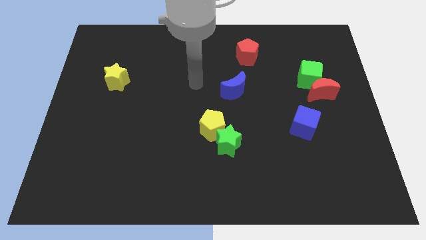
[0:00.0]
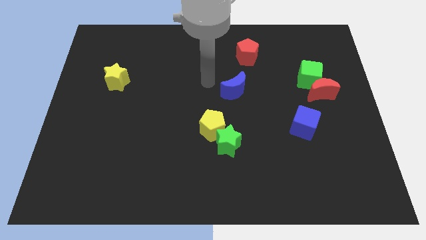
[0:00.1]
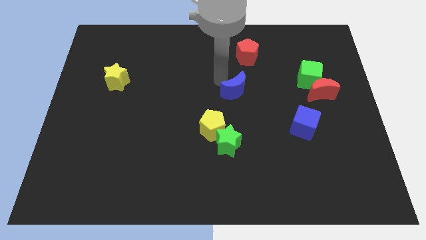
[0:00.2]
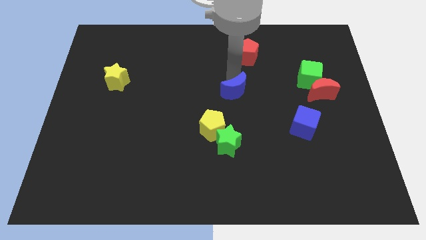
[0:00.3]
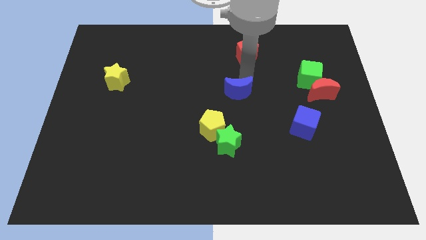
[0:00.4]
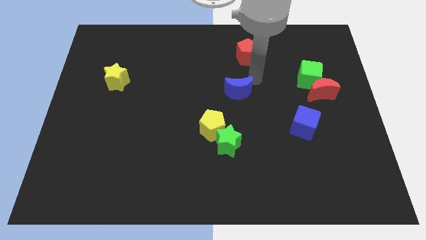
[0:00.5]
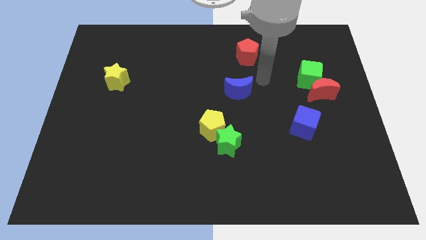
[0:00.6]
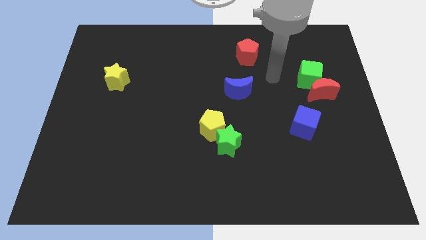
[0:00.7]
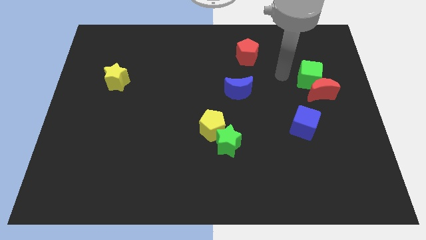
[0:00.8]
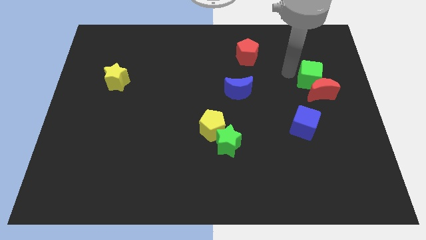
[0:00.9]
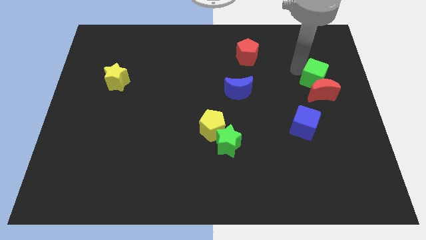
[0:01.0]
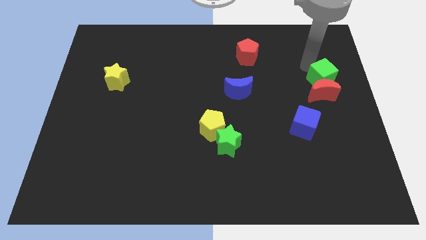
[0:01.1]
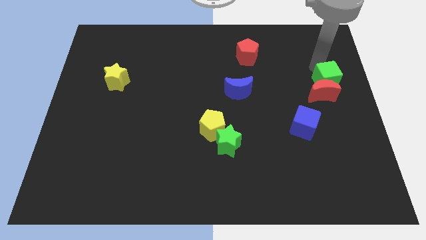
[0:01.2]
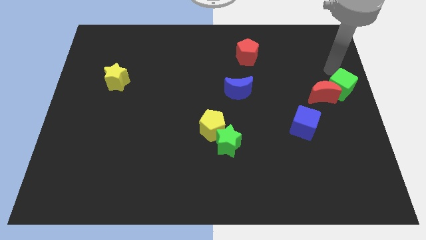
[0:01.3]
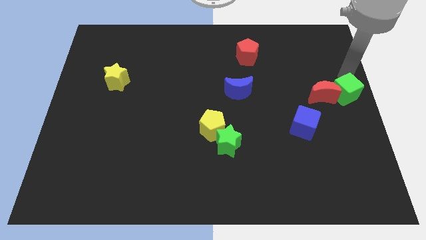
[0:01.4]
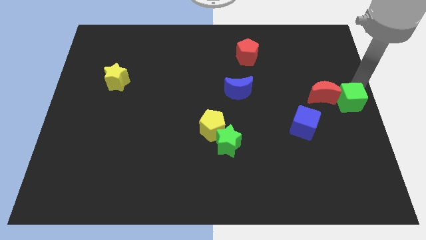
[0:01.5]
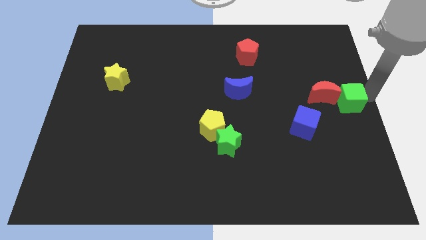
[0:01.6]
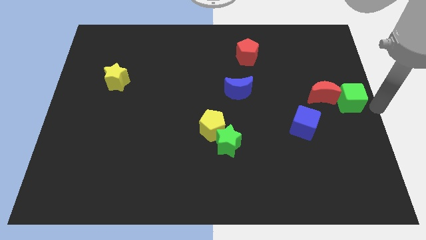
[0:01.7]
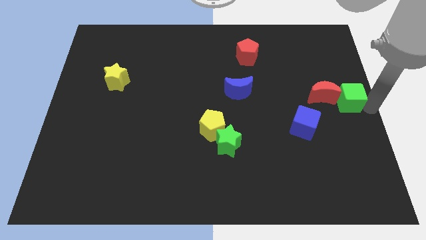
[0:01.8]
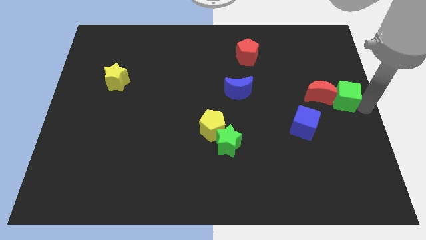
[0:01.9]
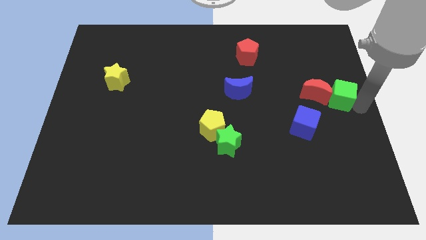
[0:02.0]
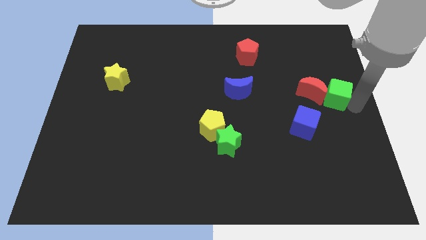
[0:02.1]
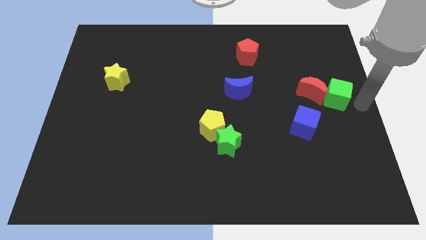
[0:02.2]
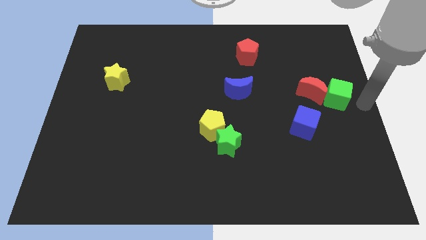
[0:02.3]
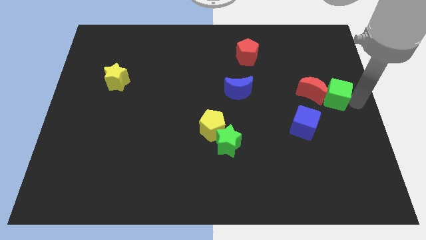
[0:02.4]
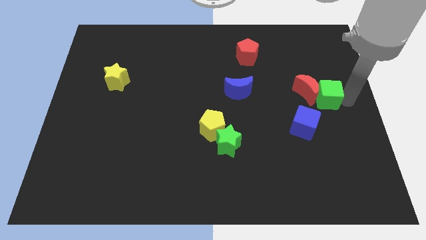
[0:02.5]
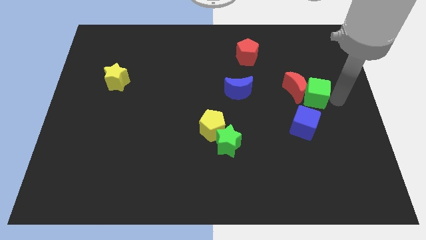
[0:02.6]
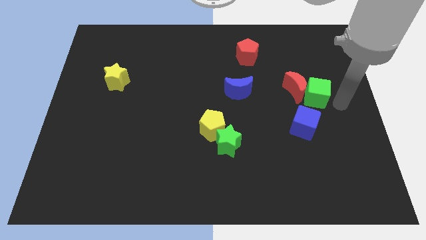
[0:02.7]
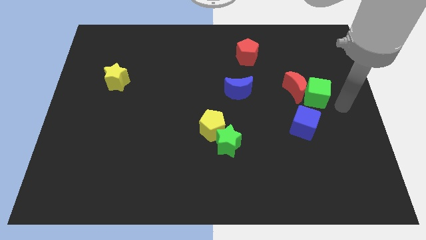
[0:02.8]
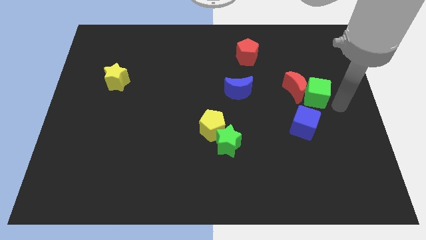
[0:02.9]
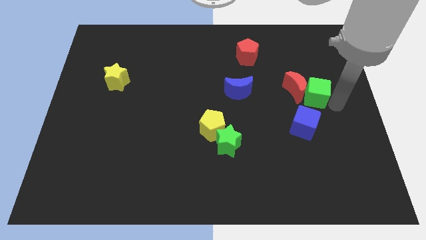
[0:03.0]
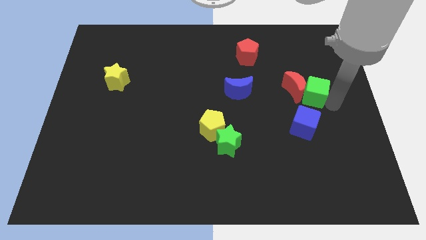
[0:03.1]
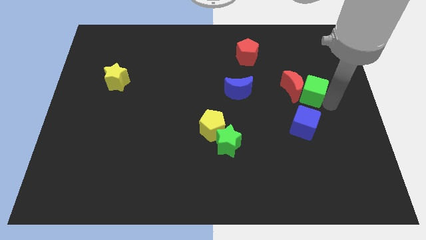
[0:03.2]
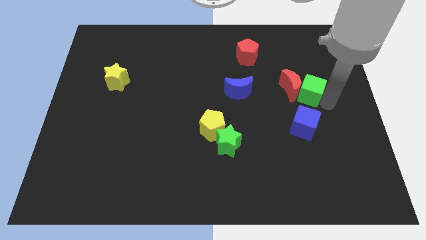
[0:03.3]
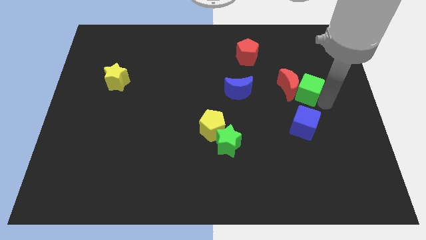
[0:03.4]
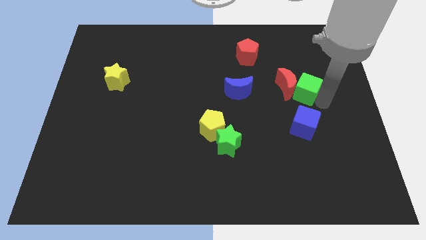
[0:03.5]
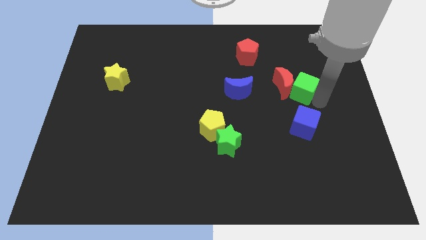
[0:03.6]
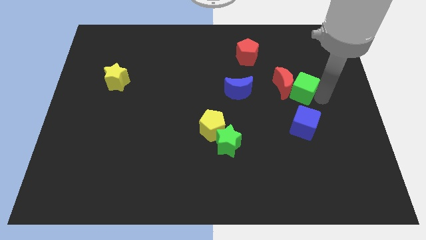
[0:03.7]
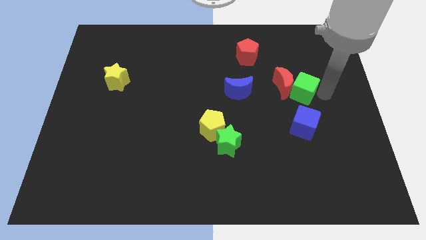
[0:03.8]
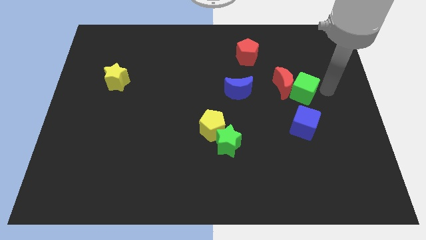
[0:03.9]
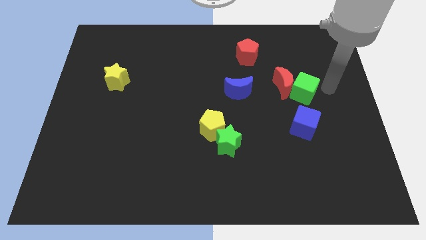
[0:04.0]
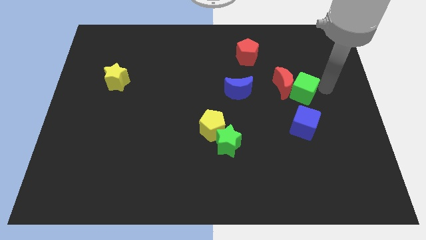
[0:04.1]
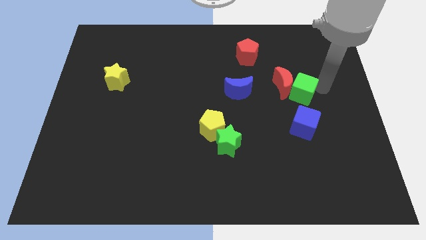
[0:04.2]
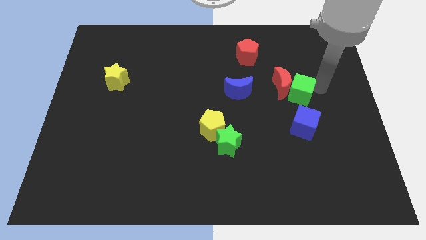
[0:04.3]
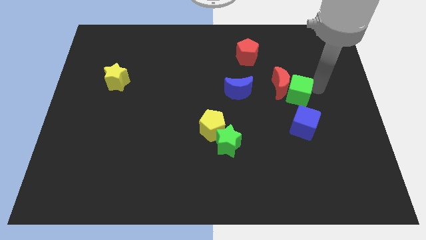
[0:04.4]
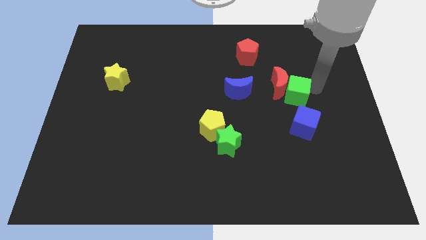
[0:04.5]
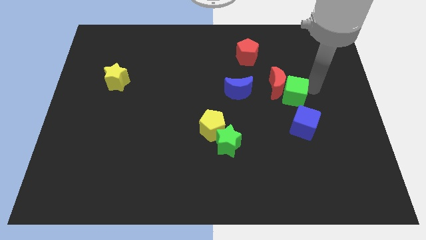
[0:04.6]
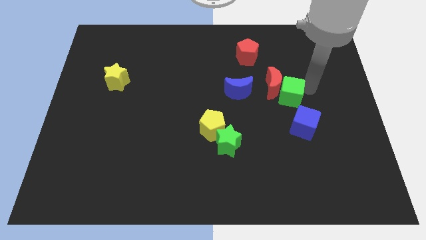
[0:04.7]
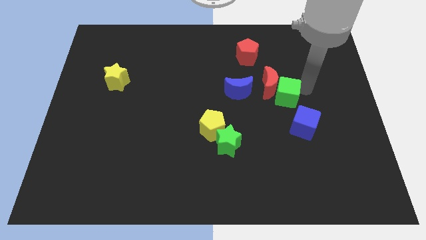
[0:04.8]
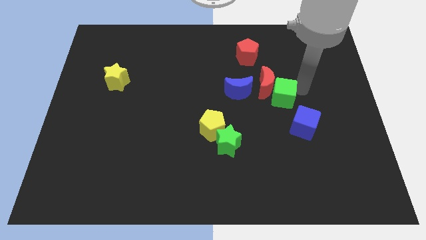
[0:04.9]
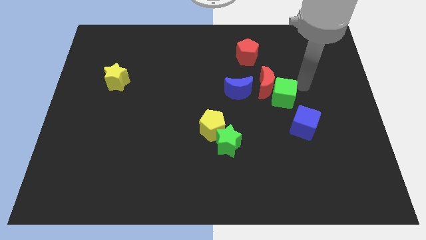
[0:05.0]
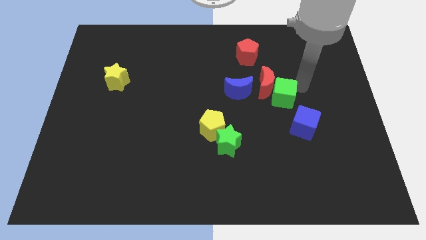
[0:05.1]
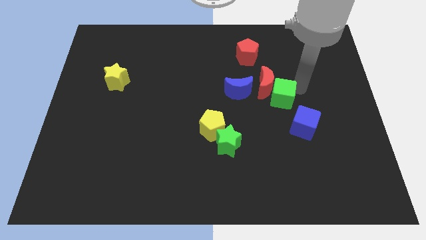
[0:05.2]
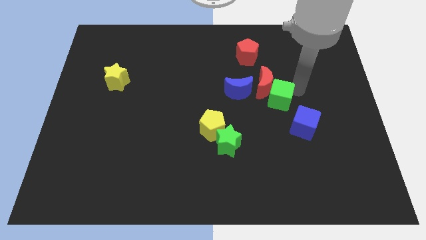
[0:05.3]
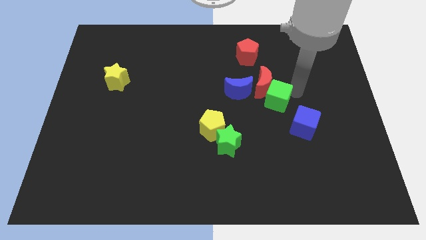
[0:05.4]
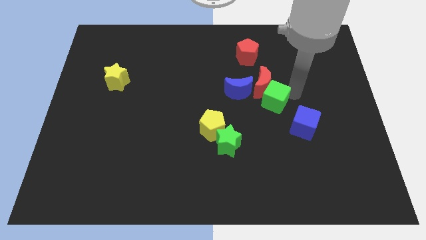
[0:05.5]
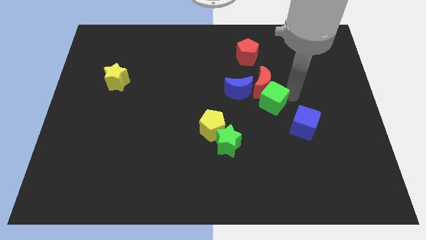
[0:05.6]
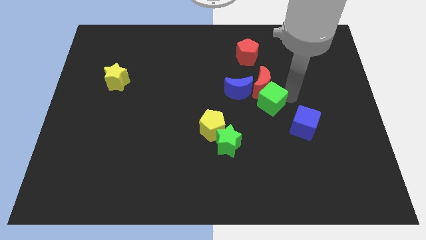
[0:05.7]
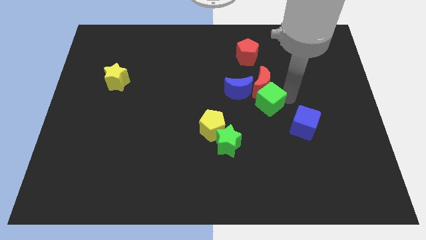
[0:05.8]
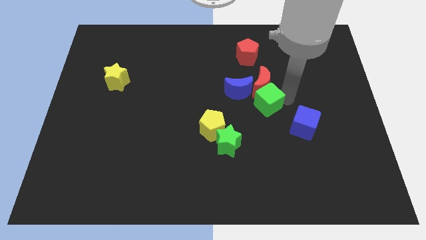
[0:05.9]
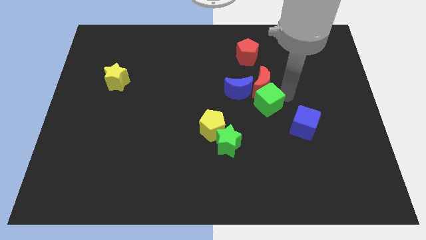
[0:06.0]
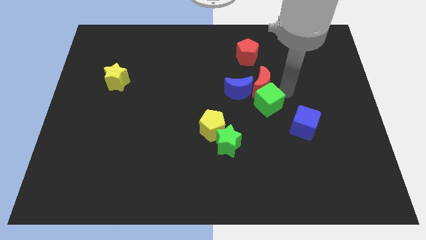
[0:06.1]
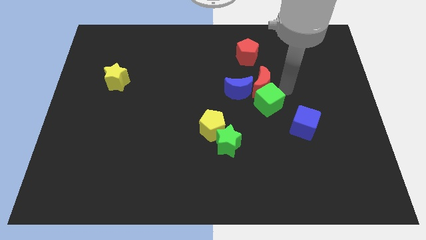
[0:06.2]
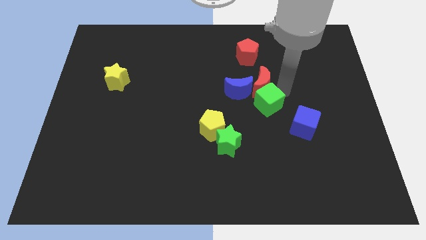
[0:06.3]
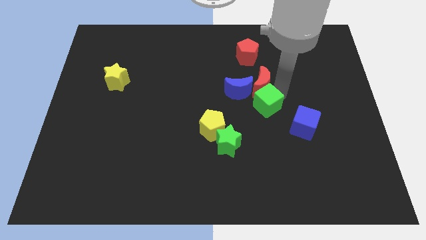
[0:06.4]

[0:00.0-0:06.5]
push the green cube to the middle of the board
